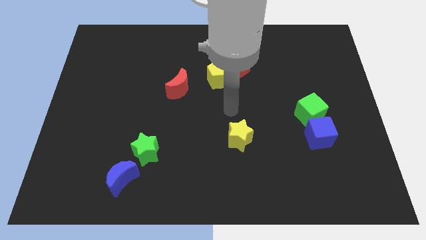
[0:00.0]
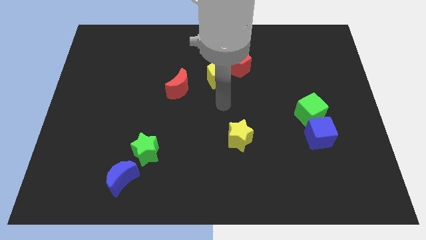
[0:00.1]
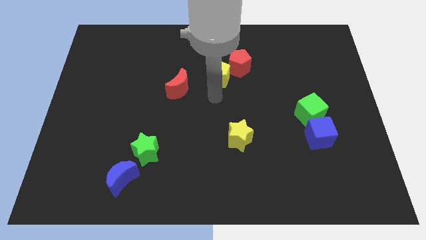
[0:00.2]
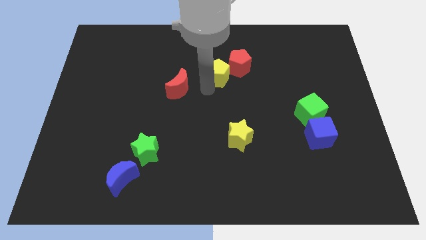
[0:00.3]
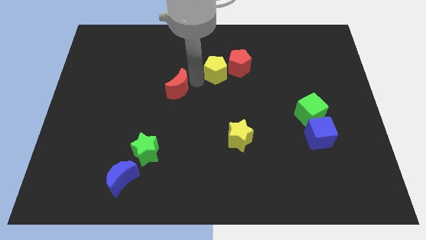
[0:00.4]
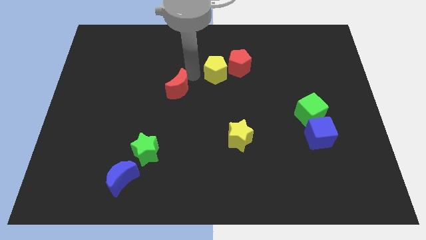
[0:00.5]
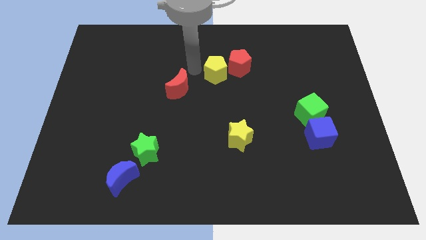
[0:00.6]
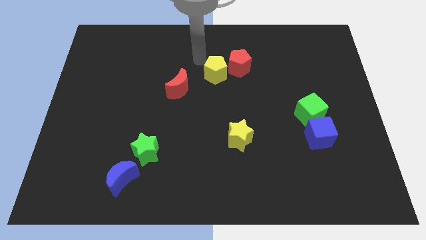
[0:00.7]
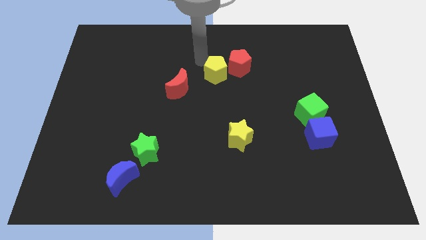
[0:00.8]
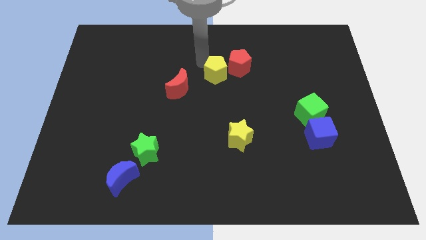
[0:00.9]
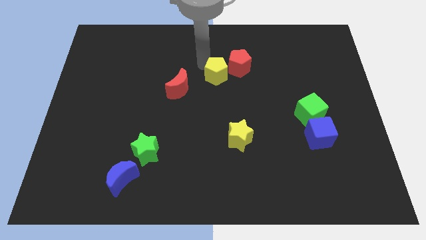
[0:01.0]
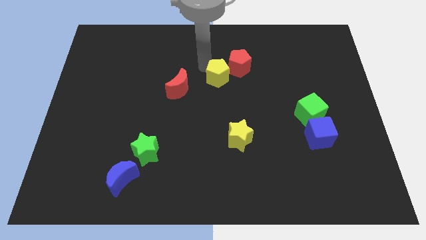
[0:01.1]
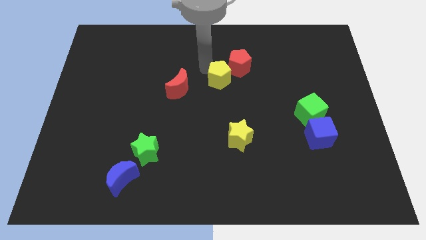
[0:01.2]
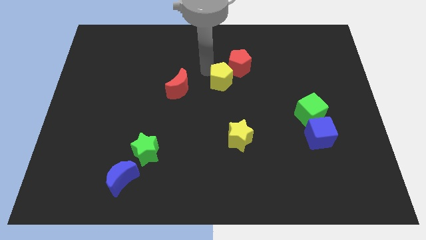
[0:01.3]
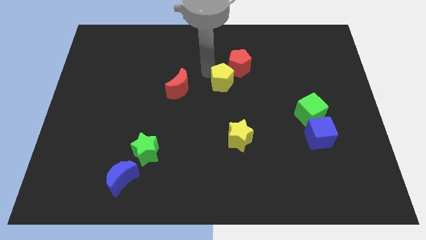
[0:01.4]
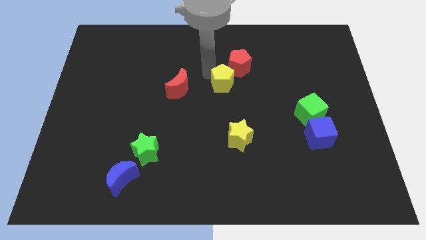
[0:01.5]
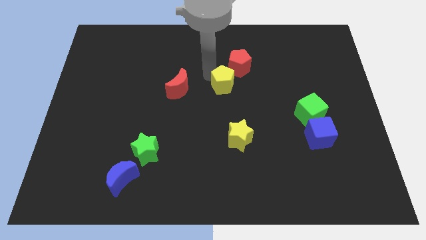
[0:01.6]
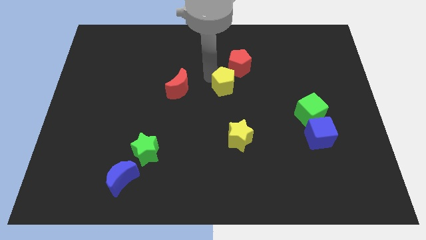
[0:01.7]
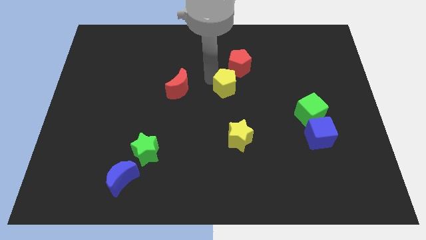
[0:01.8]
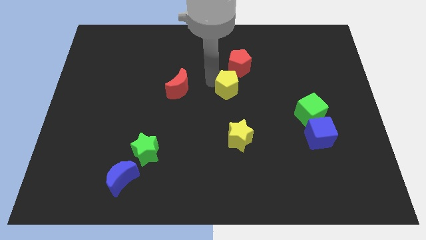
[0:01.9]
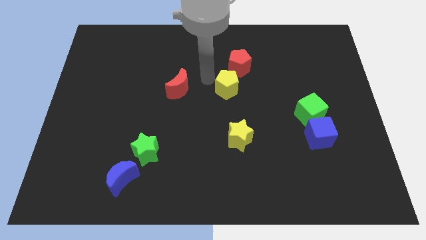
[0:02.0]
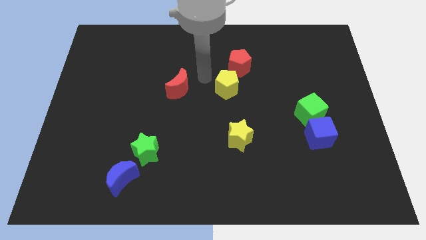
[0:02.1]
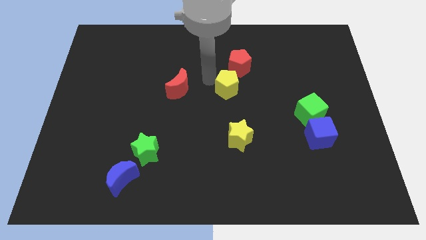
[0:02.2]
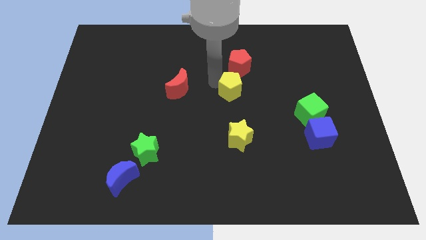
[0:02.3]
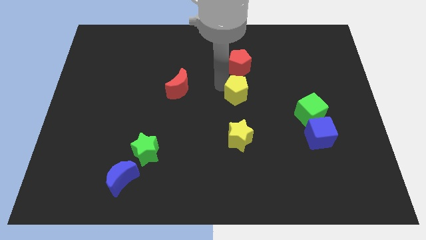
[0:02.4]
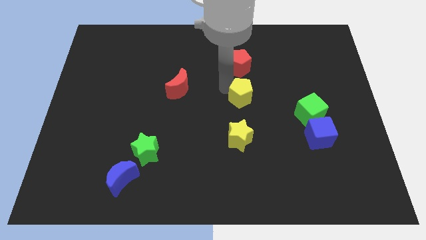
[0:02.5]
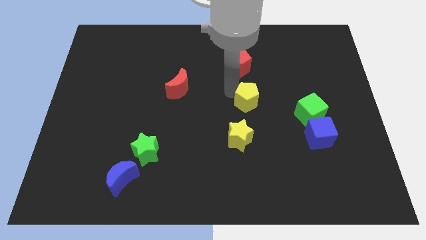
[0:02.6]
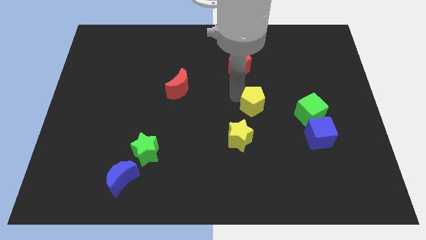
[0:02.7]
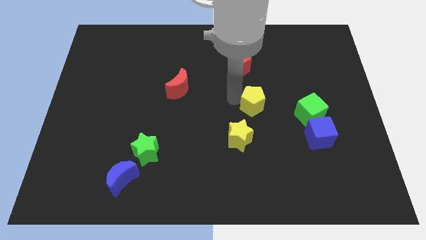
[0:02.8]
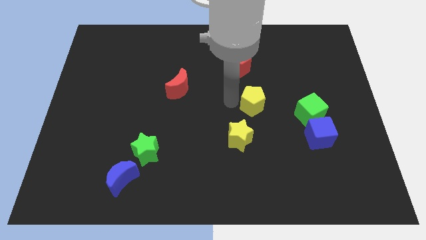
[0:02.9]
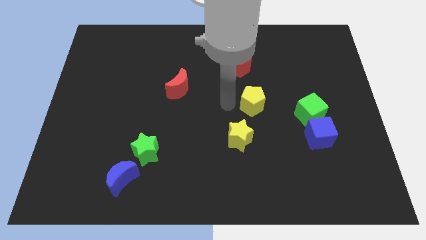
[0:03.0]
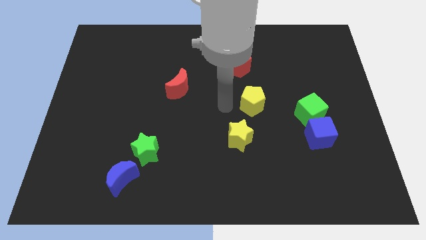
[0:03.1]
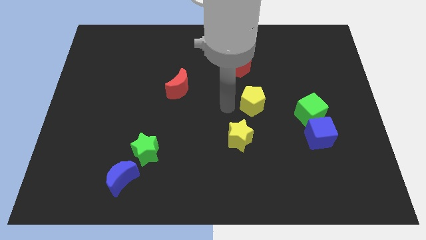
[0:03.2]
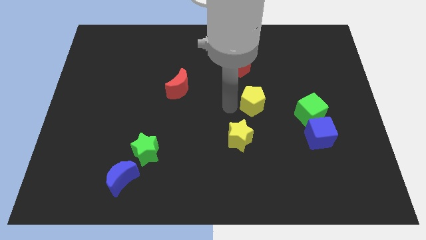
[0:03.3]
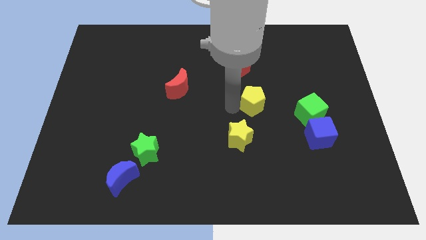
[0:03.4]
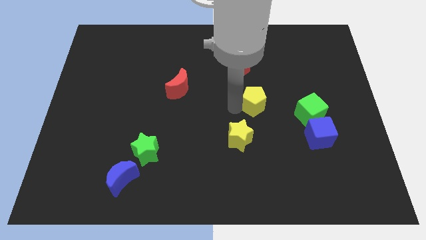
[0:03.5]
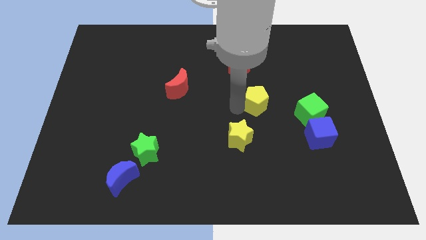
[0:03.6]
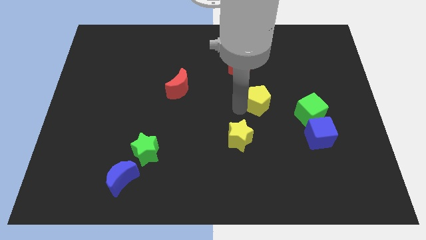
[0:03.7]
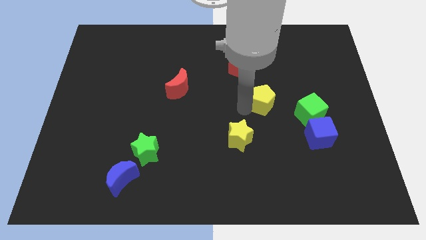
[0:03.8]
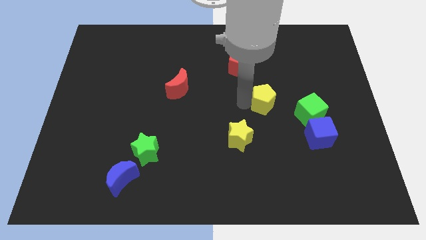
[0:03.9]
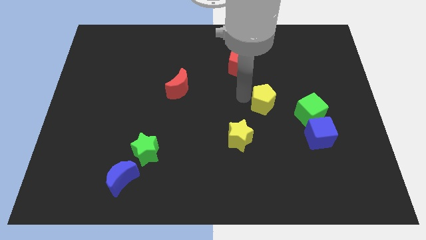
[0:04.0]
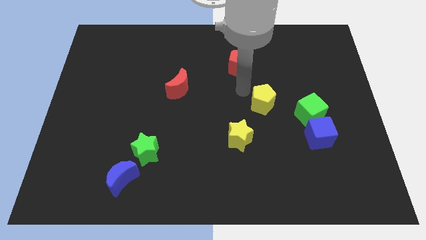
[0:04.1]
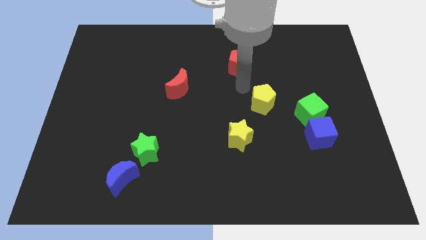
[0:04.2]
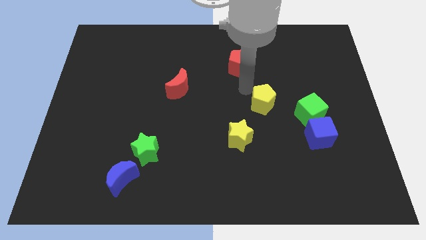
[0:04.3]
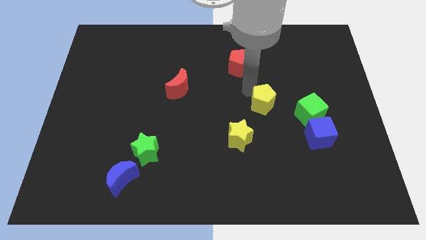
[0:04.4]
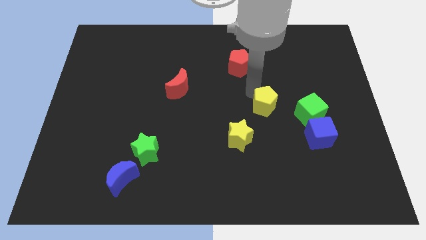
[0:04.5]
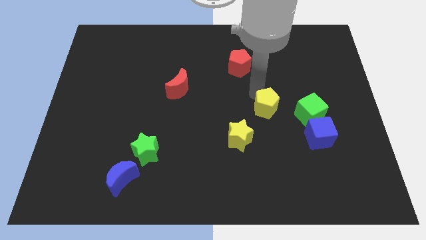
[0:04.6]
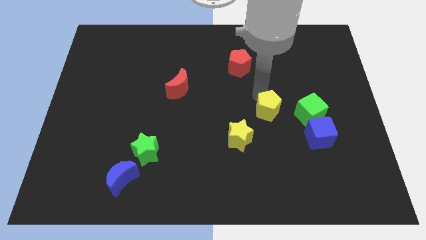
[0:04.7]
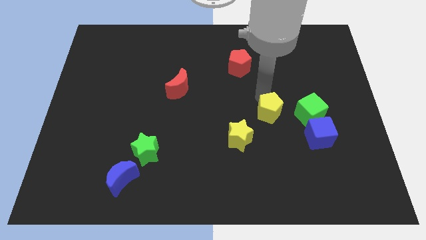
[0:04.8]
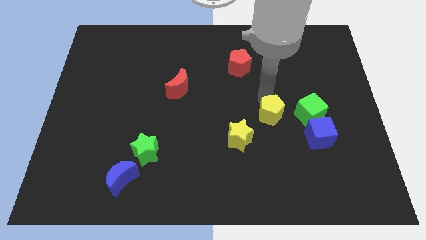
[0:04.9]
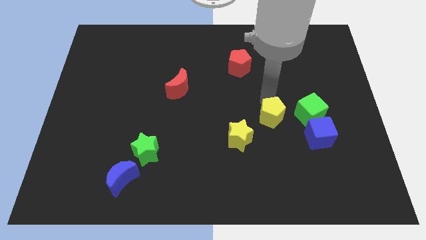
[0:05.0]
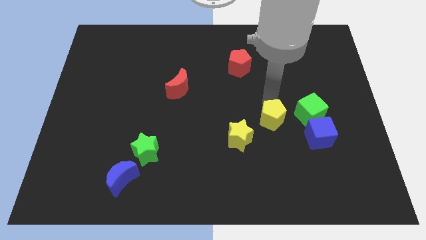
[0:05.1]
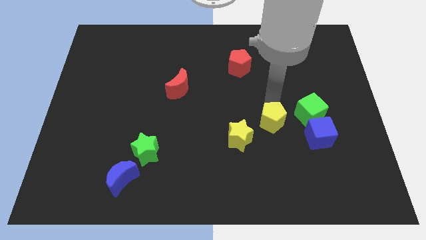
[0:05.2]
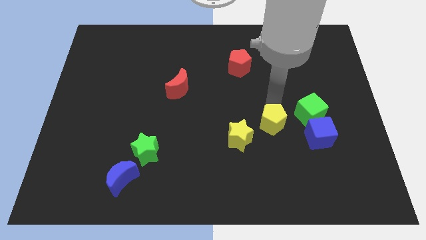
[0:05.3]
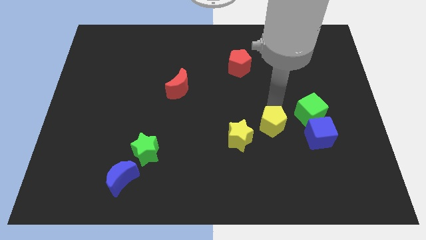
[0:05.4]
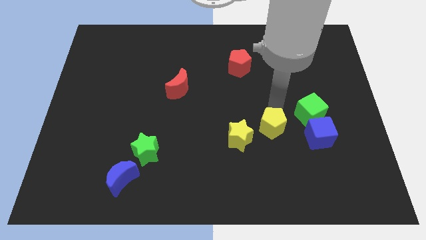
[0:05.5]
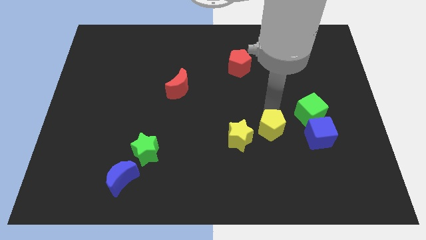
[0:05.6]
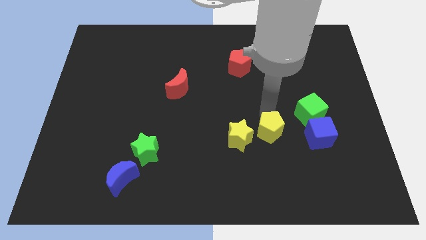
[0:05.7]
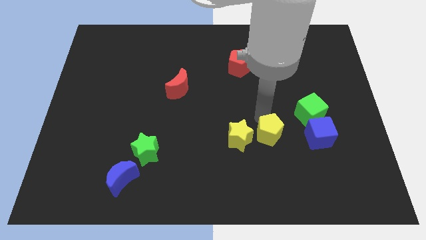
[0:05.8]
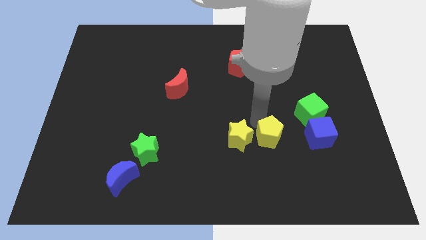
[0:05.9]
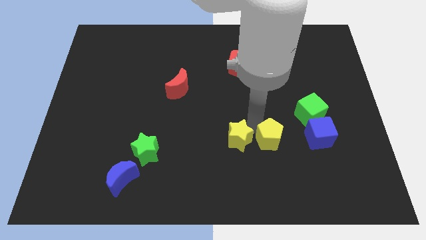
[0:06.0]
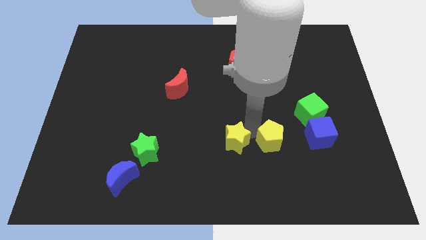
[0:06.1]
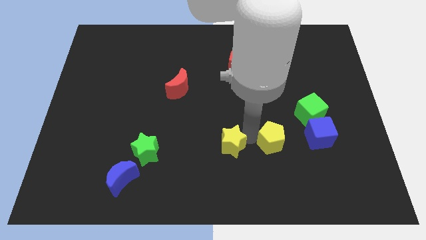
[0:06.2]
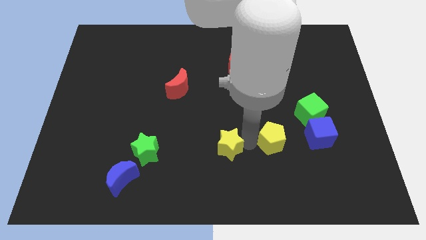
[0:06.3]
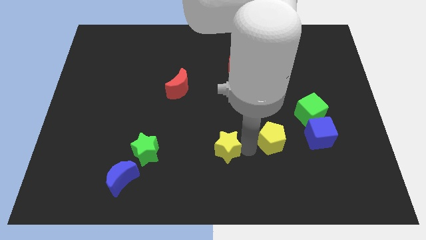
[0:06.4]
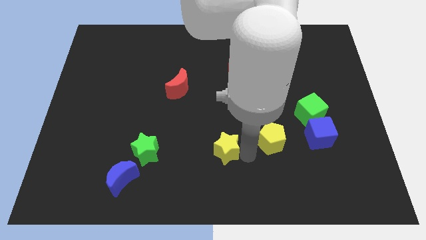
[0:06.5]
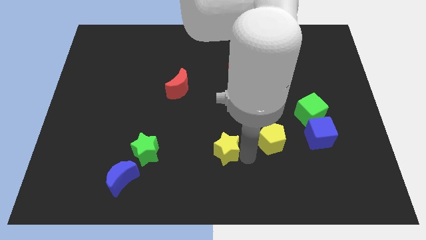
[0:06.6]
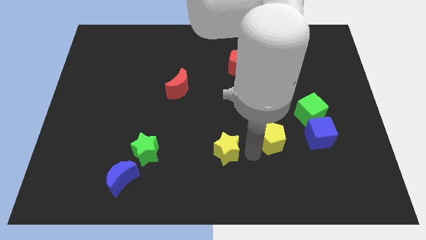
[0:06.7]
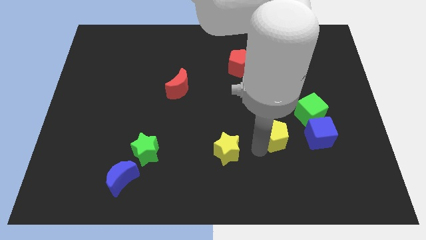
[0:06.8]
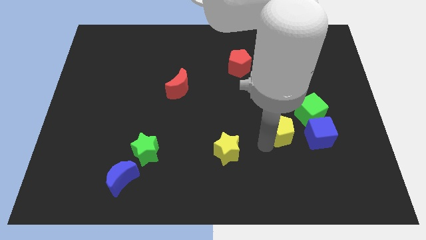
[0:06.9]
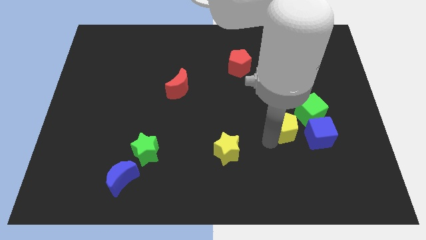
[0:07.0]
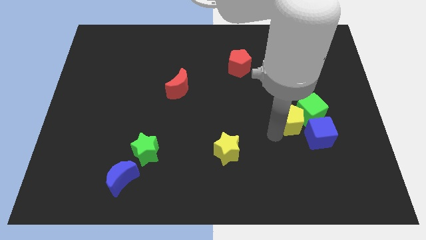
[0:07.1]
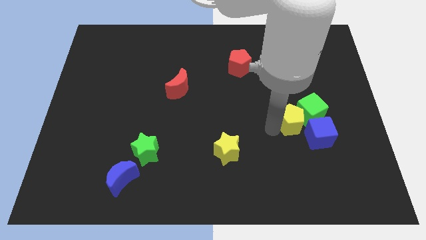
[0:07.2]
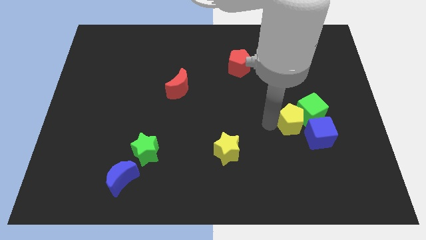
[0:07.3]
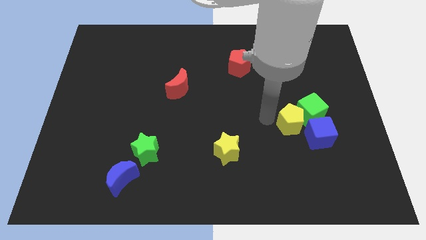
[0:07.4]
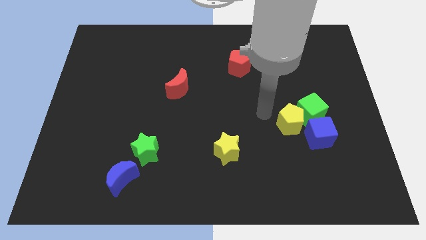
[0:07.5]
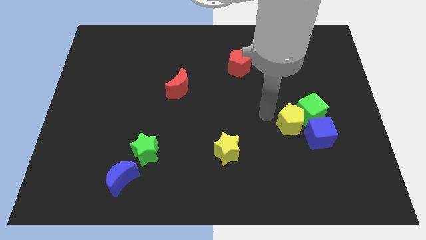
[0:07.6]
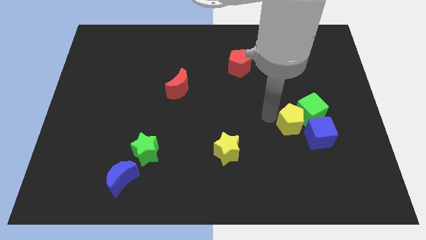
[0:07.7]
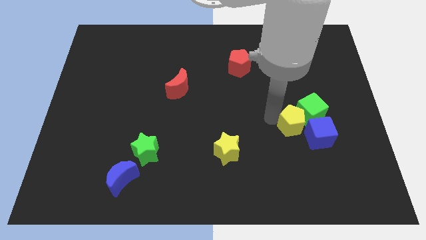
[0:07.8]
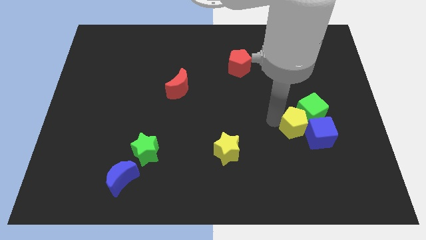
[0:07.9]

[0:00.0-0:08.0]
push the yellow pentagon next to the blue cube
